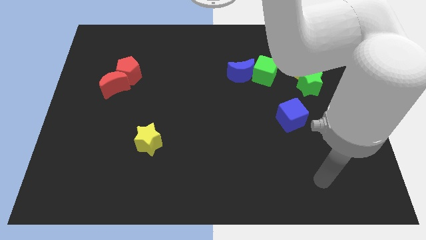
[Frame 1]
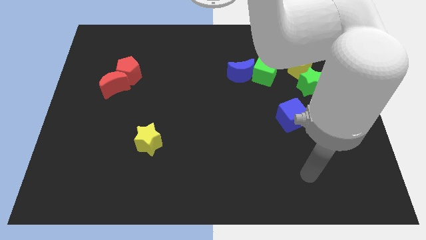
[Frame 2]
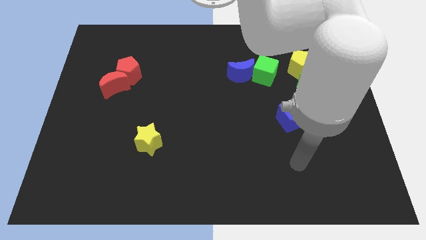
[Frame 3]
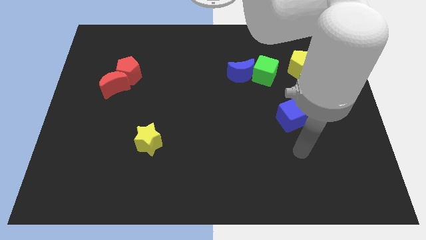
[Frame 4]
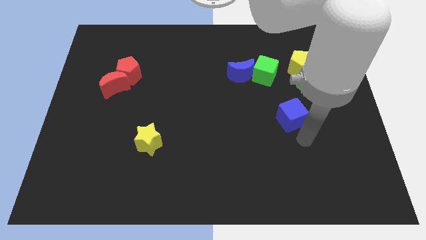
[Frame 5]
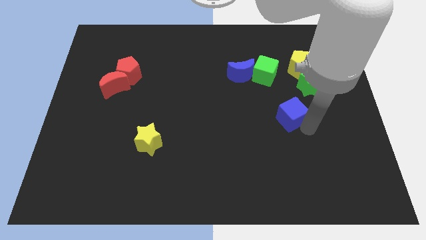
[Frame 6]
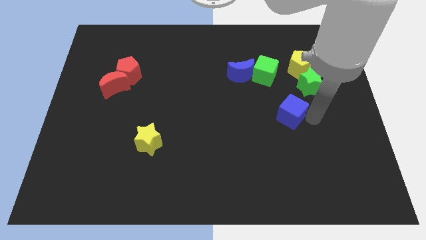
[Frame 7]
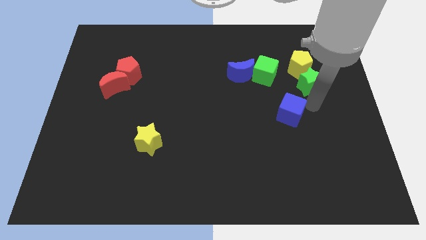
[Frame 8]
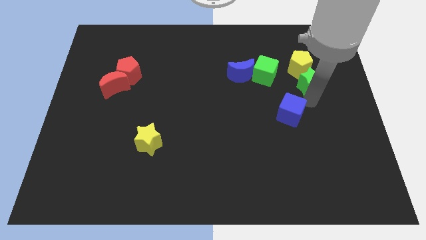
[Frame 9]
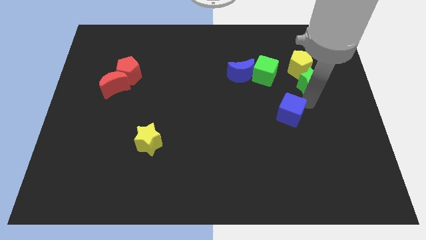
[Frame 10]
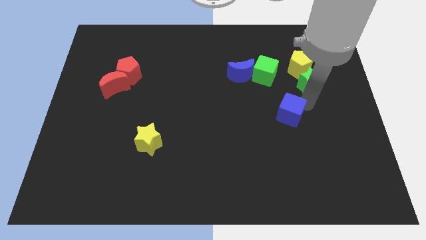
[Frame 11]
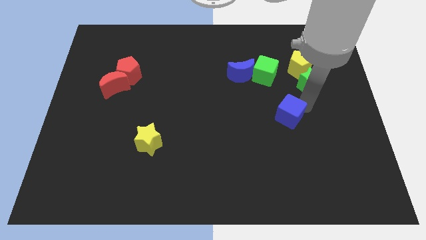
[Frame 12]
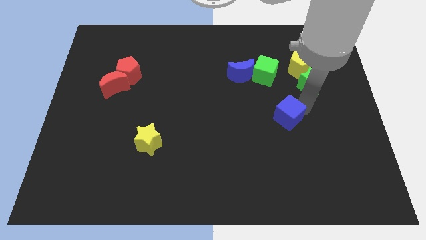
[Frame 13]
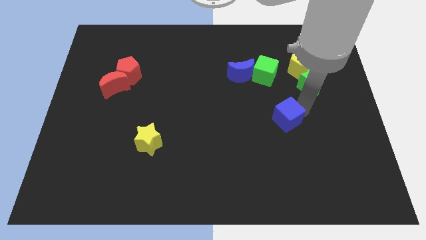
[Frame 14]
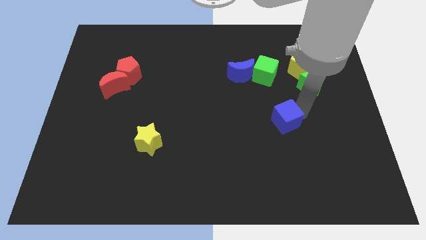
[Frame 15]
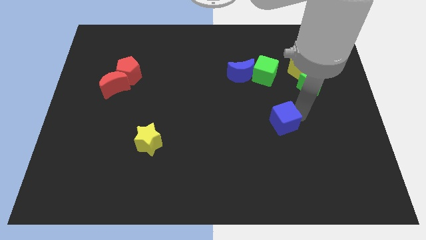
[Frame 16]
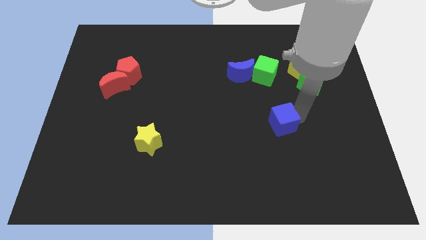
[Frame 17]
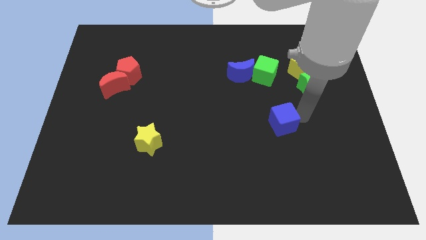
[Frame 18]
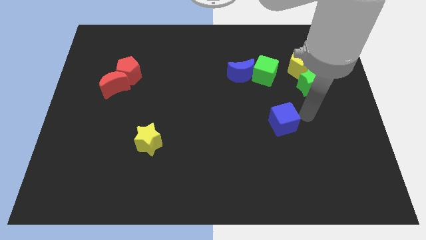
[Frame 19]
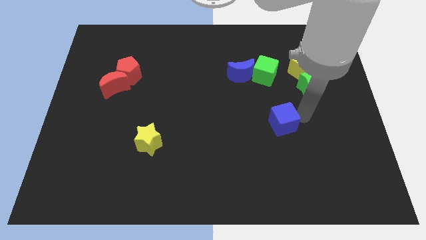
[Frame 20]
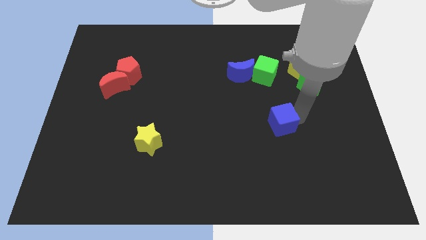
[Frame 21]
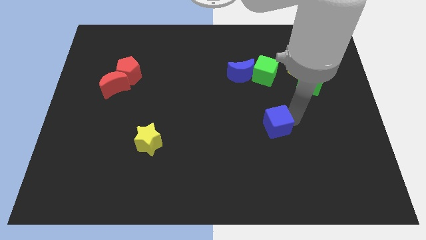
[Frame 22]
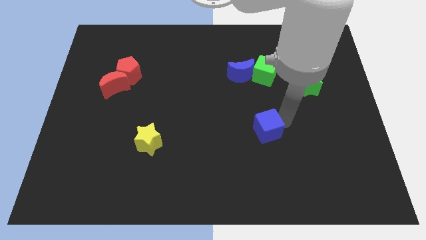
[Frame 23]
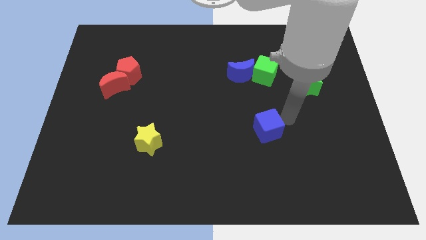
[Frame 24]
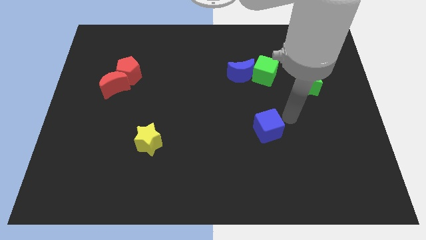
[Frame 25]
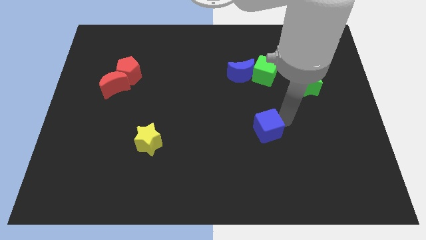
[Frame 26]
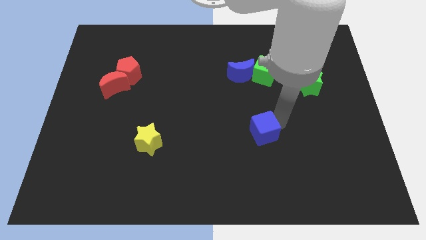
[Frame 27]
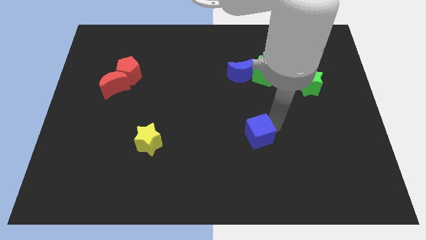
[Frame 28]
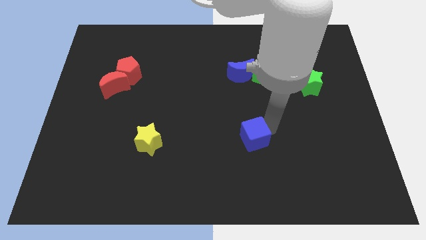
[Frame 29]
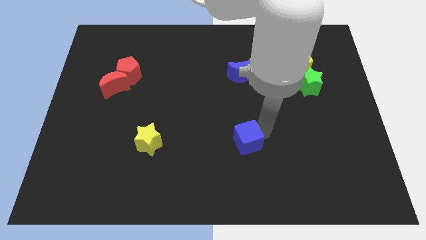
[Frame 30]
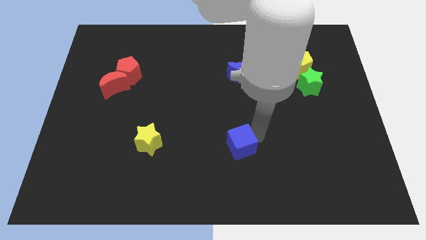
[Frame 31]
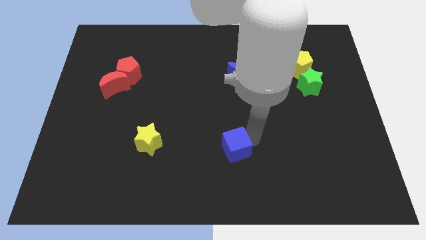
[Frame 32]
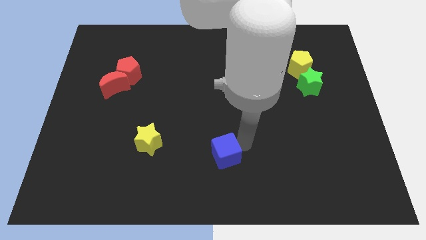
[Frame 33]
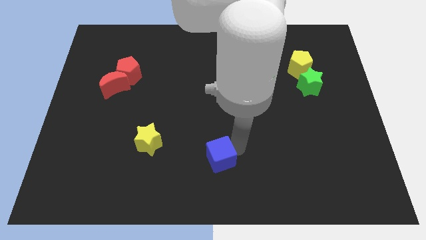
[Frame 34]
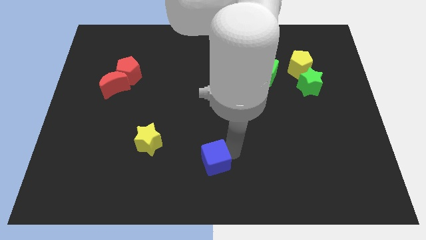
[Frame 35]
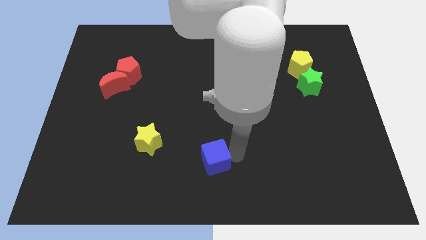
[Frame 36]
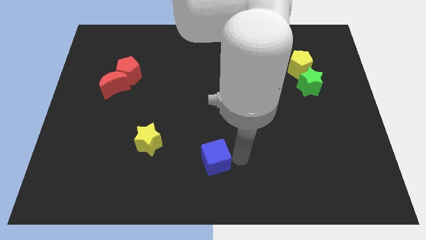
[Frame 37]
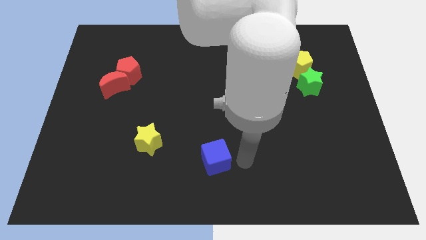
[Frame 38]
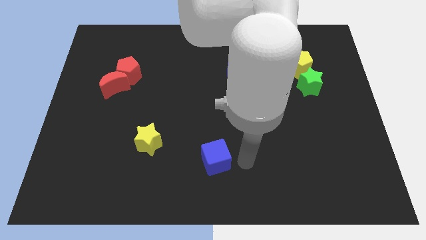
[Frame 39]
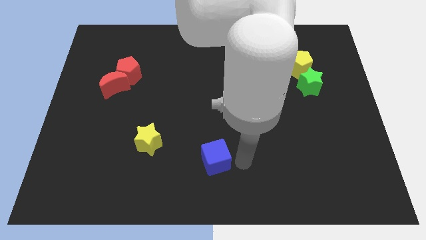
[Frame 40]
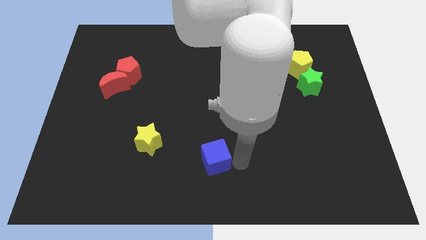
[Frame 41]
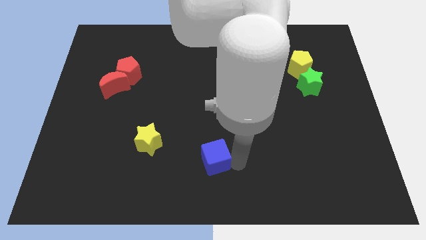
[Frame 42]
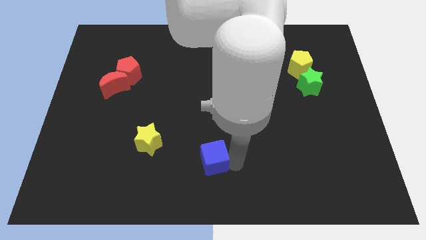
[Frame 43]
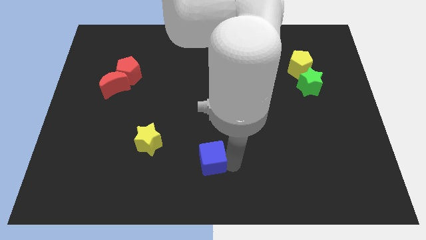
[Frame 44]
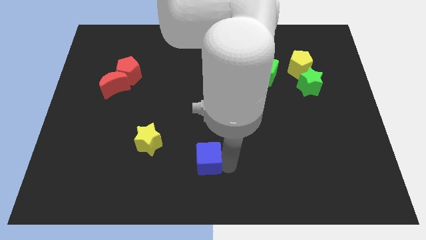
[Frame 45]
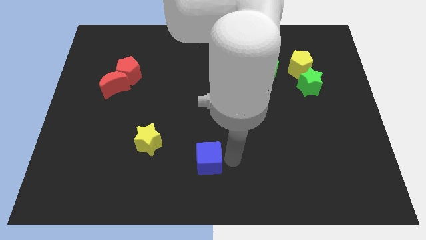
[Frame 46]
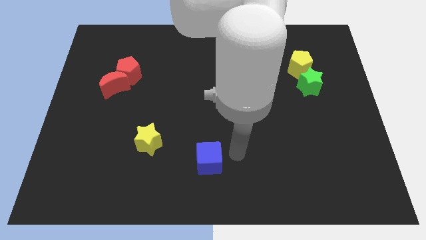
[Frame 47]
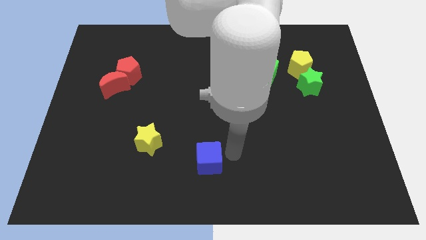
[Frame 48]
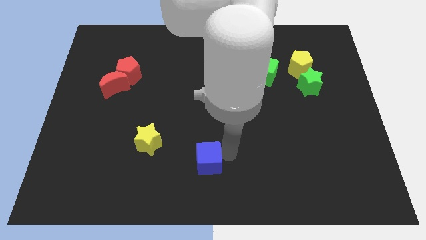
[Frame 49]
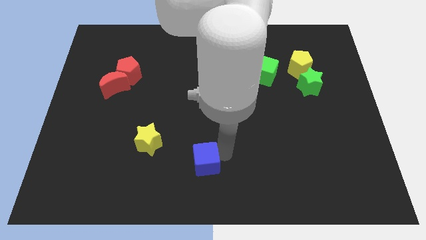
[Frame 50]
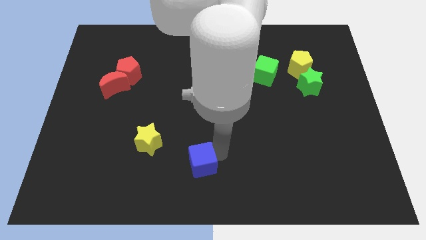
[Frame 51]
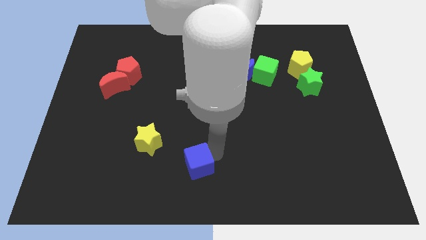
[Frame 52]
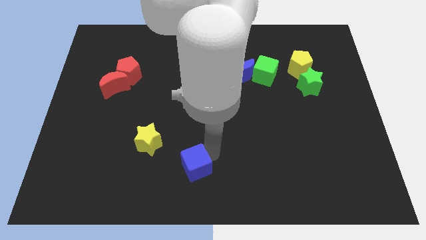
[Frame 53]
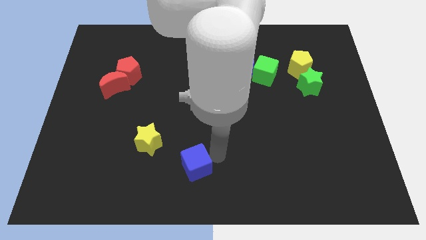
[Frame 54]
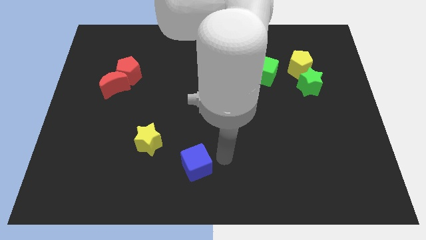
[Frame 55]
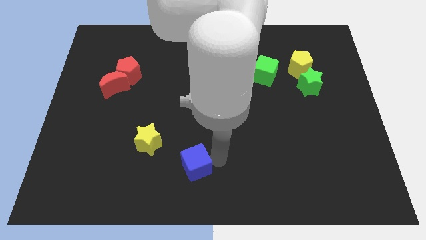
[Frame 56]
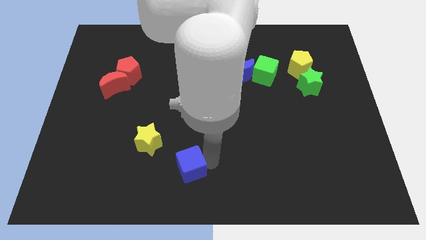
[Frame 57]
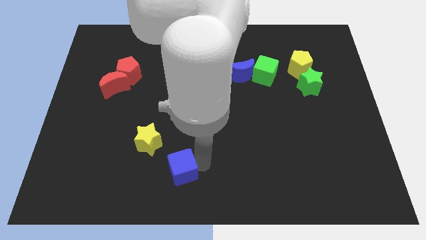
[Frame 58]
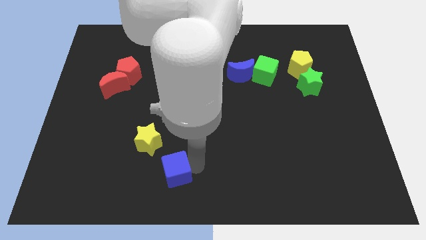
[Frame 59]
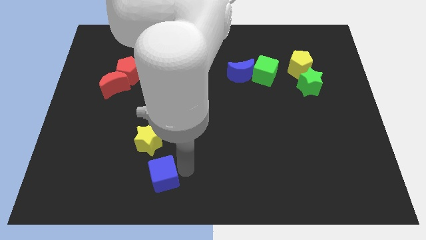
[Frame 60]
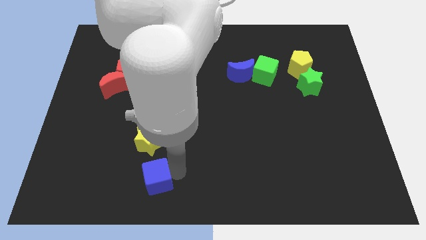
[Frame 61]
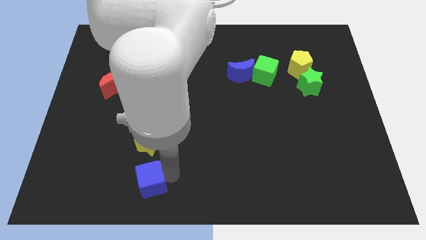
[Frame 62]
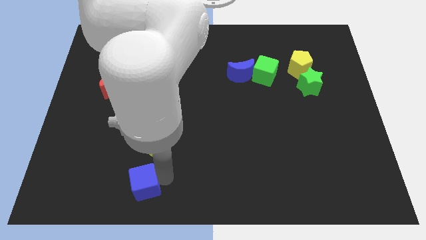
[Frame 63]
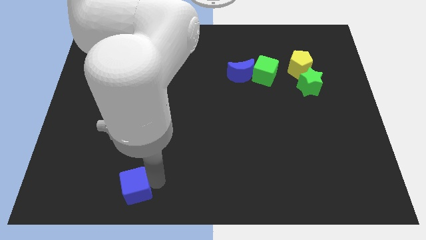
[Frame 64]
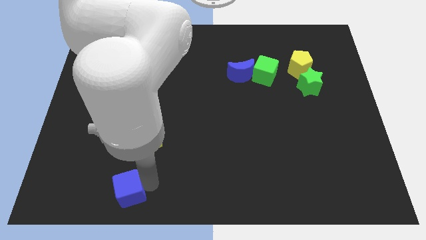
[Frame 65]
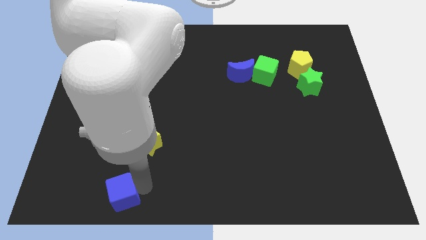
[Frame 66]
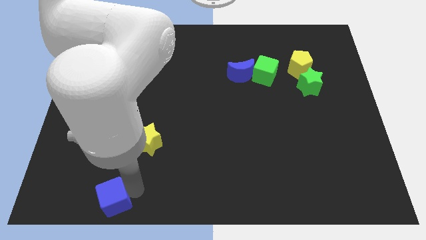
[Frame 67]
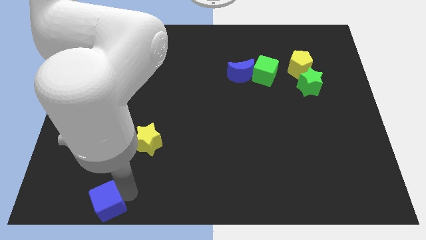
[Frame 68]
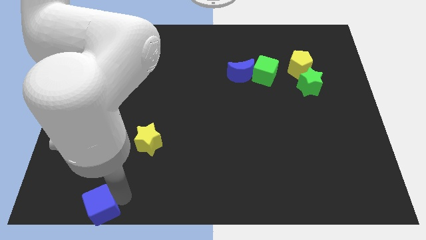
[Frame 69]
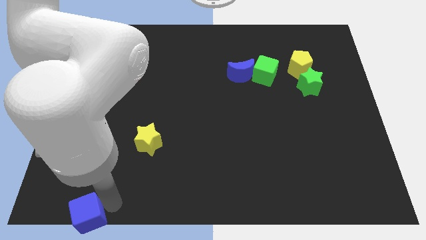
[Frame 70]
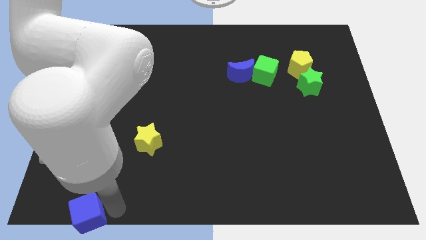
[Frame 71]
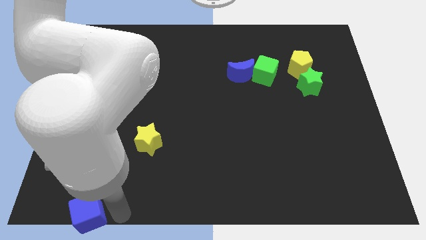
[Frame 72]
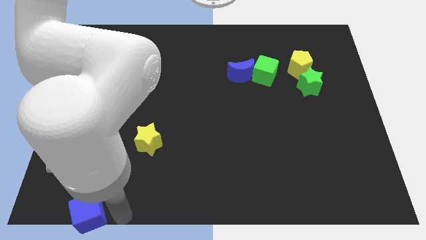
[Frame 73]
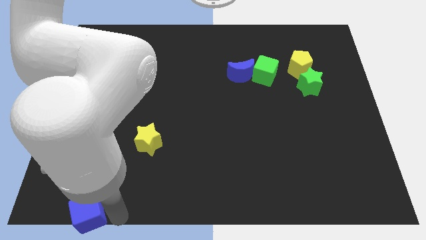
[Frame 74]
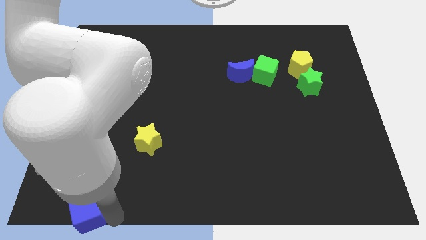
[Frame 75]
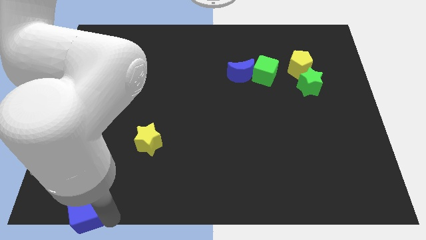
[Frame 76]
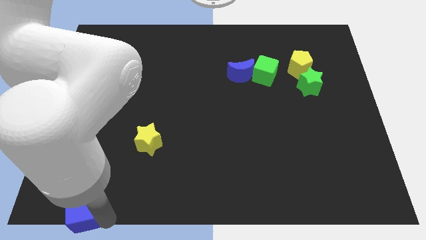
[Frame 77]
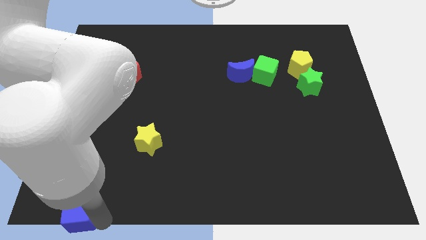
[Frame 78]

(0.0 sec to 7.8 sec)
slide the blue cube to the bottom left
